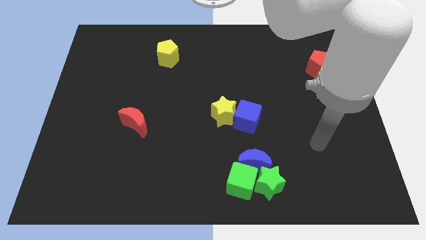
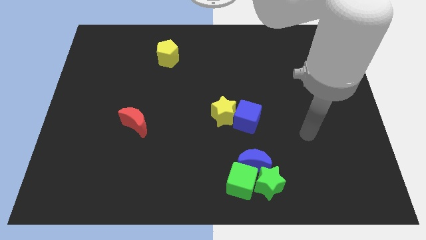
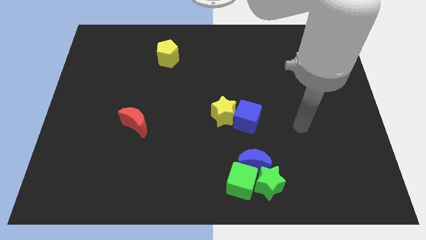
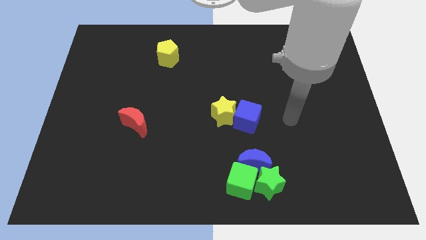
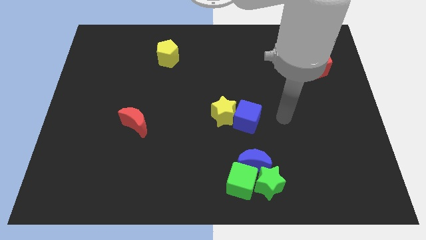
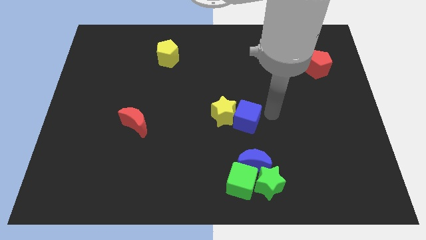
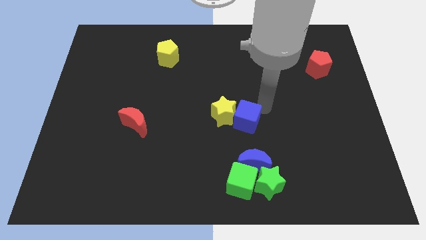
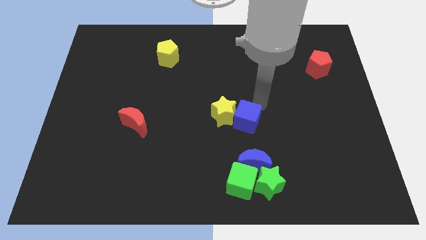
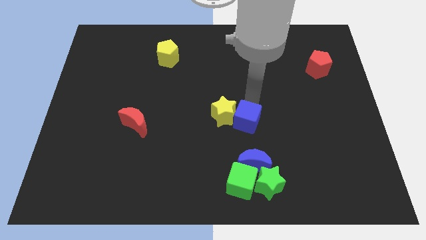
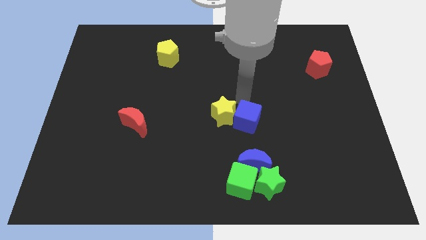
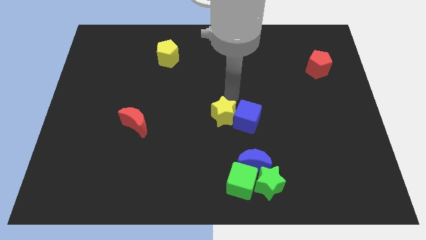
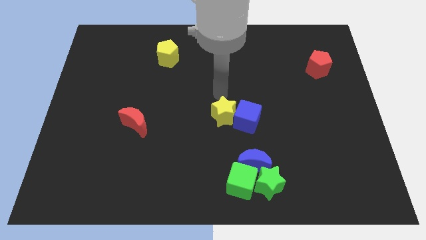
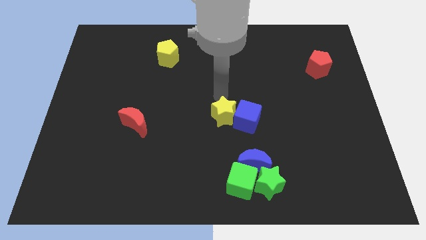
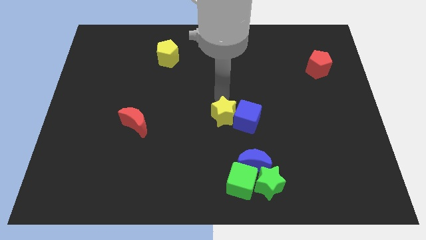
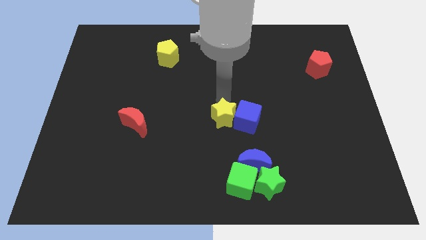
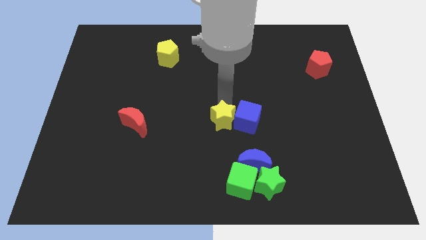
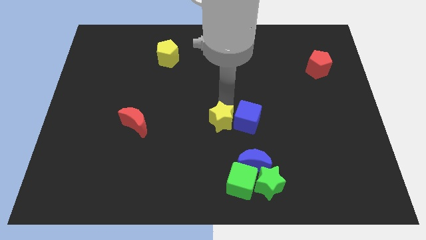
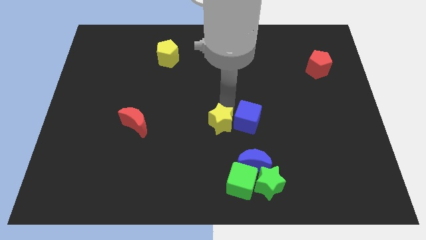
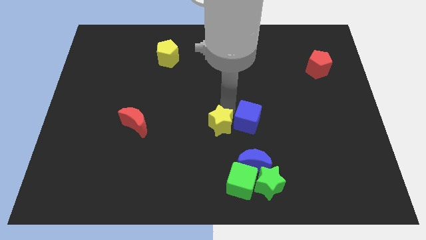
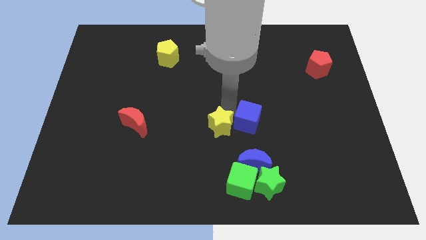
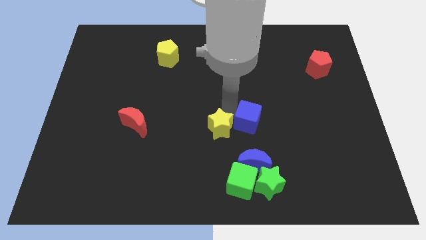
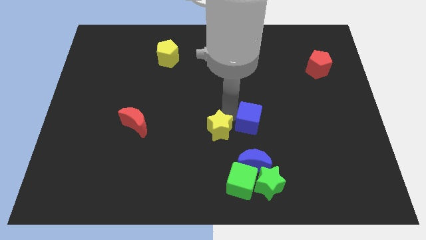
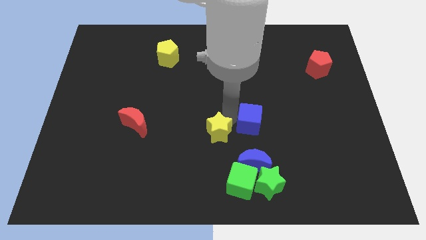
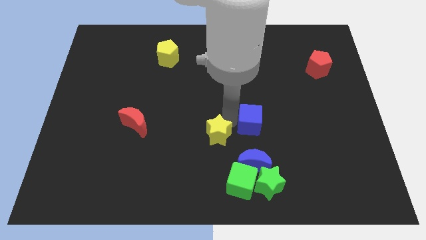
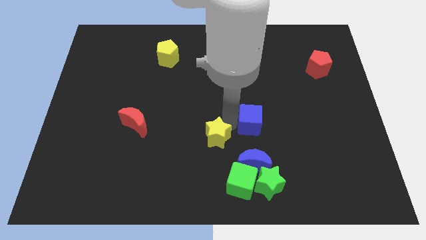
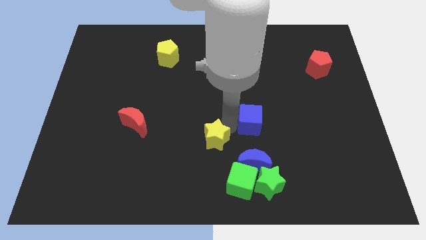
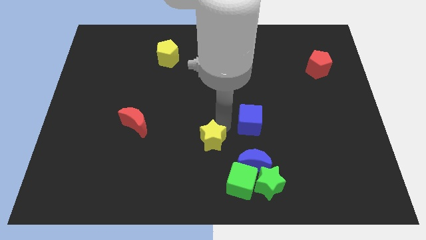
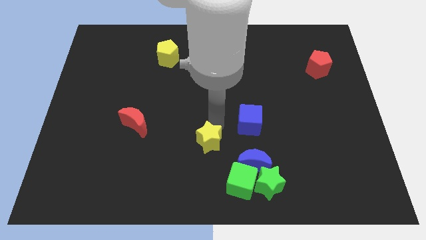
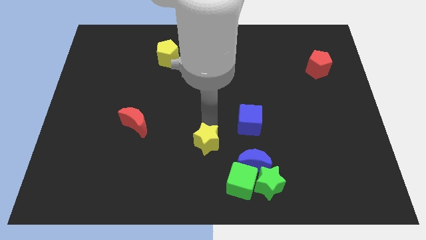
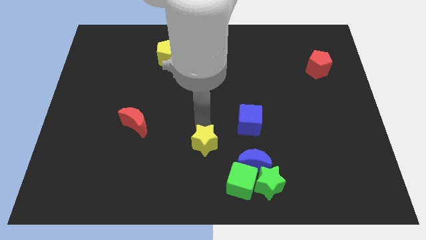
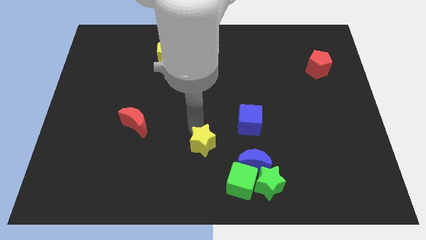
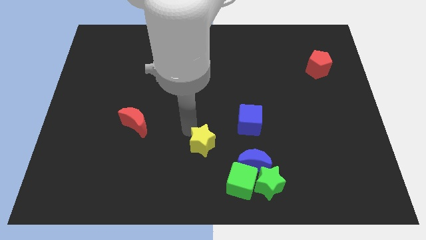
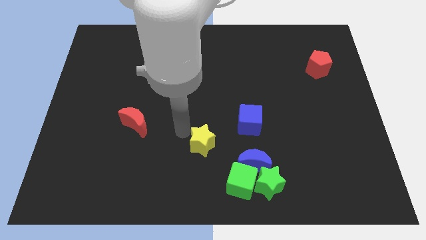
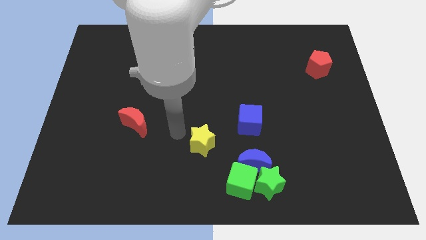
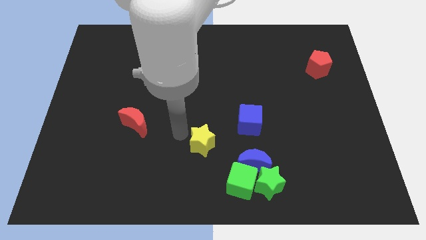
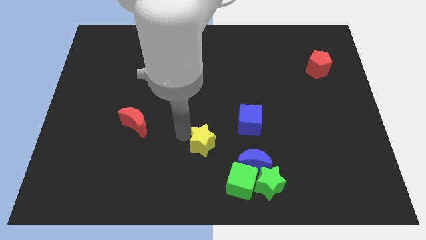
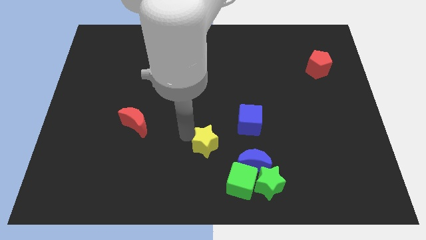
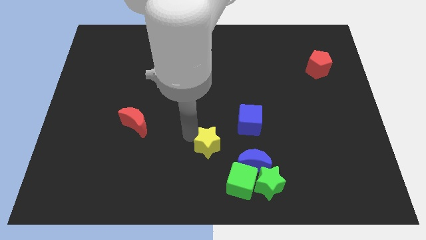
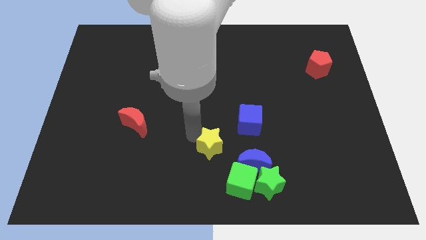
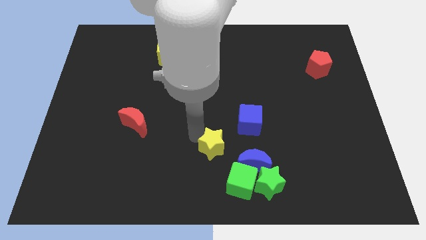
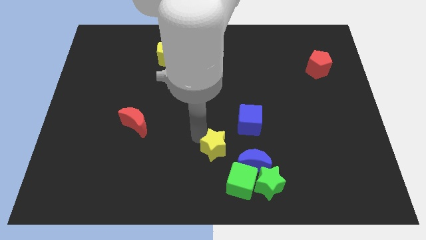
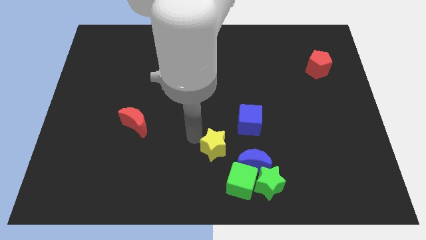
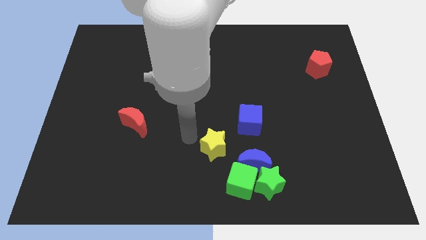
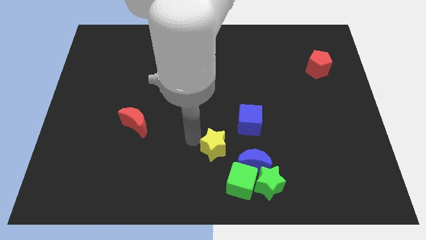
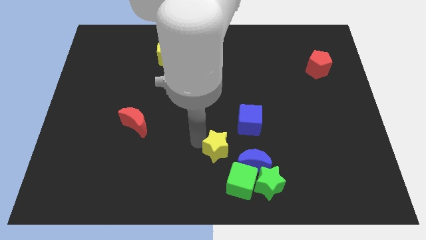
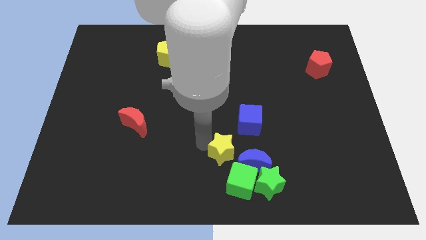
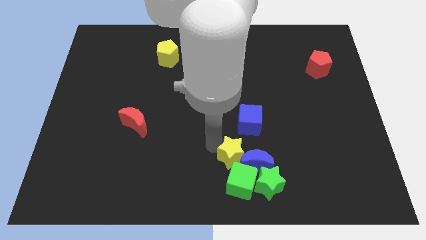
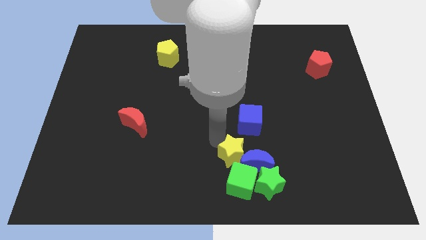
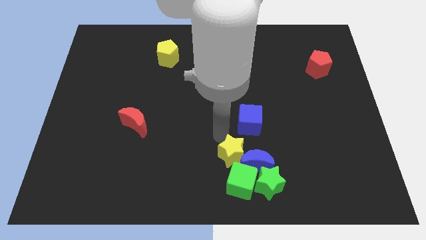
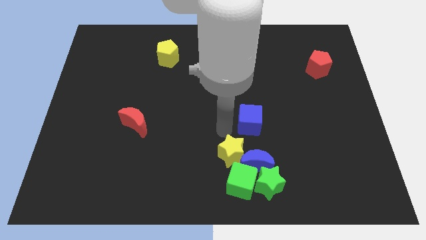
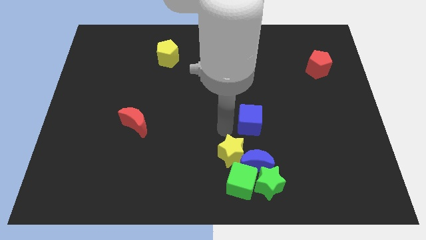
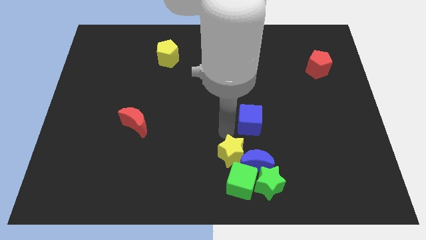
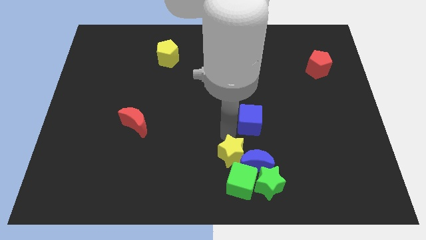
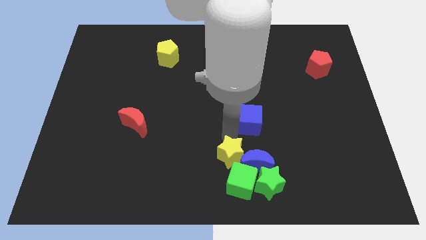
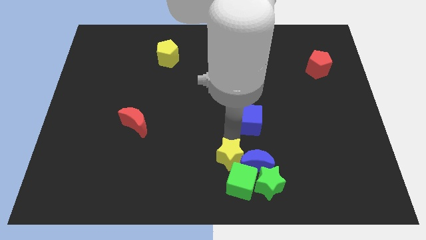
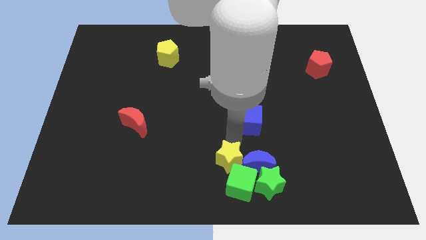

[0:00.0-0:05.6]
slide the yellow star towards the green cube

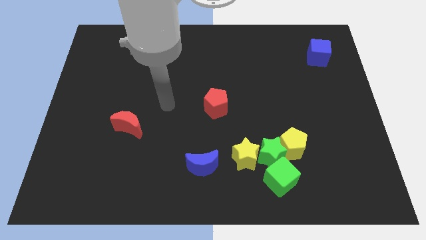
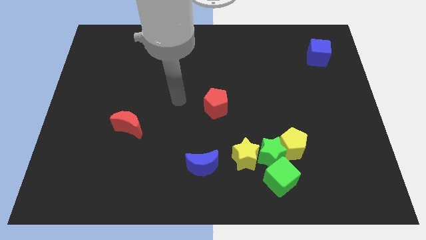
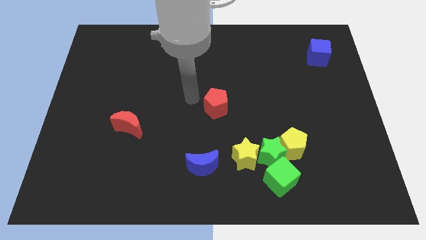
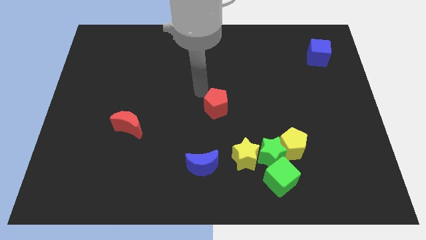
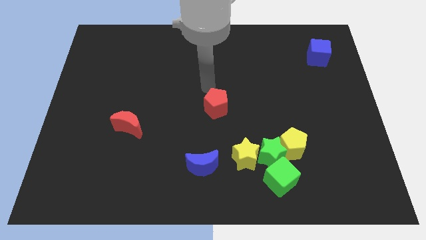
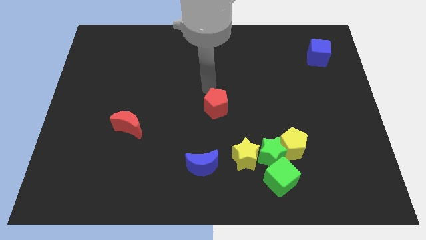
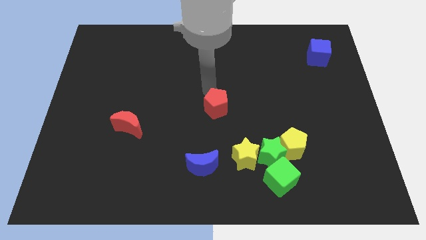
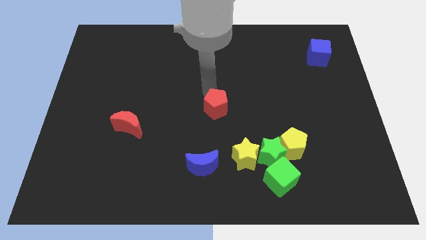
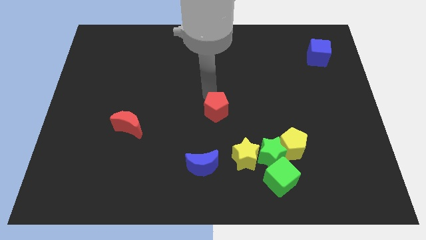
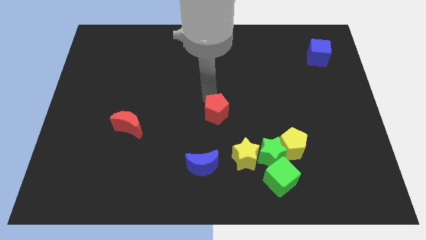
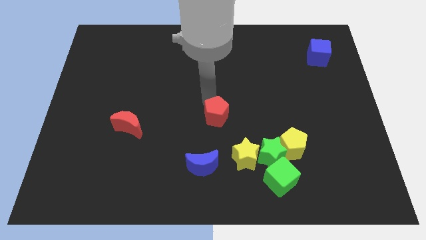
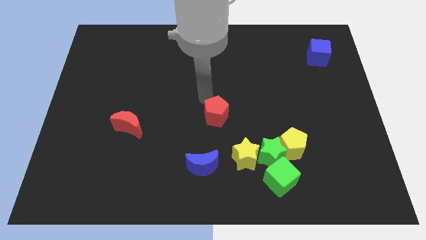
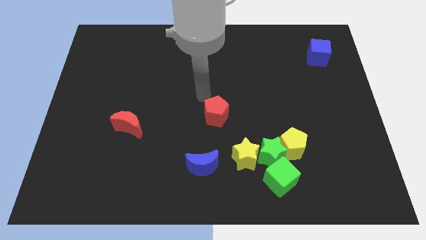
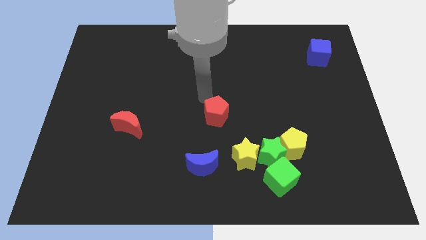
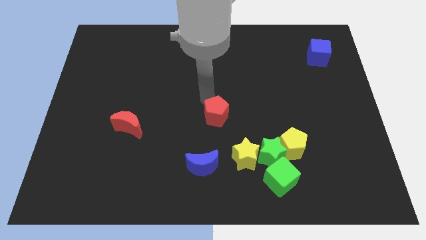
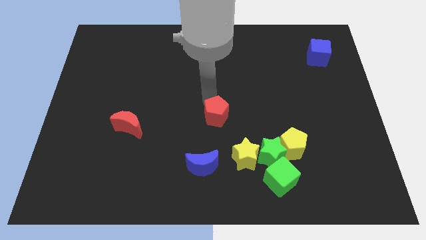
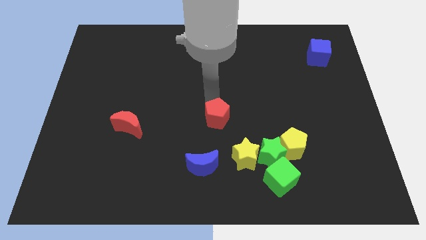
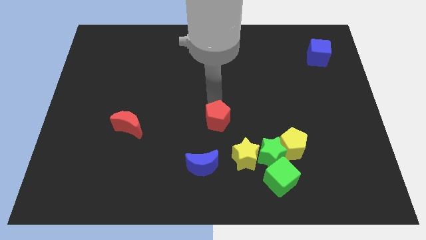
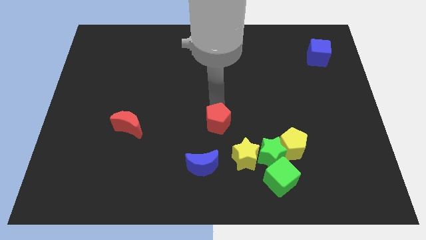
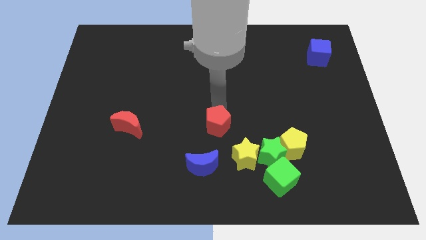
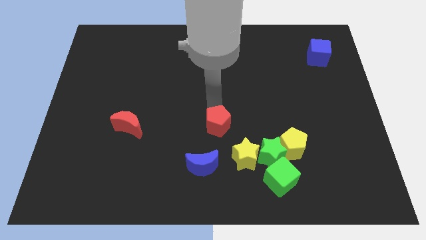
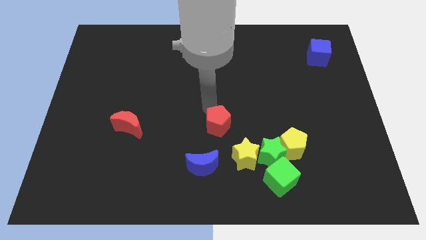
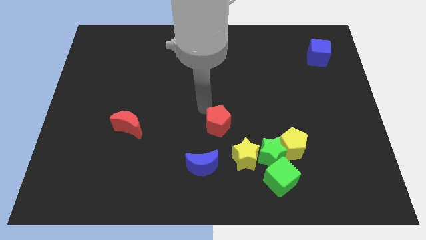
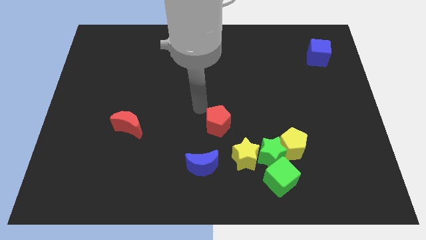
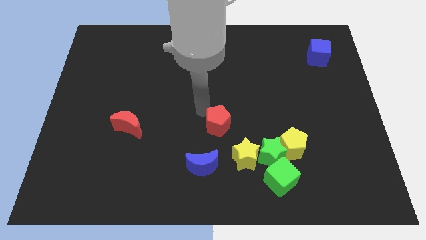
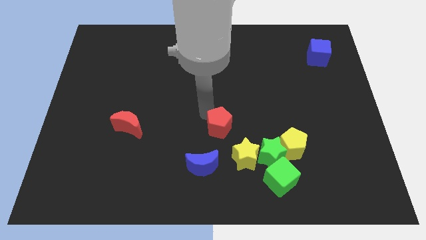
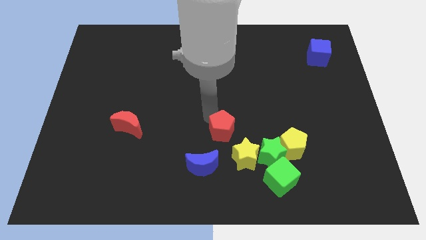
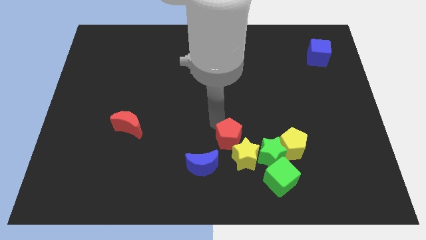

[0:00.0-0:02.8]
put the red pentagon towards the yellow star
